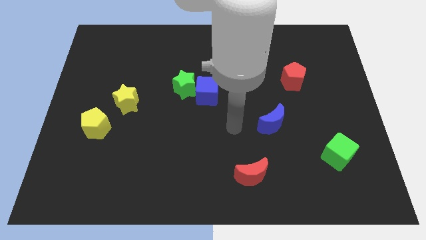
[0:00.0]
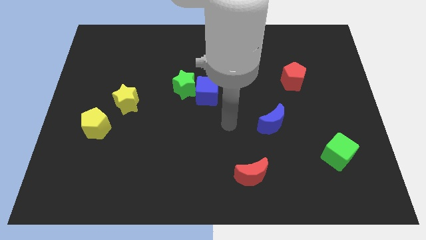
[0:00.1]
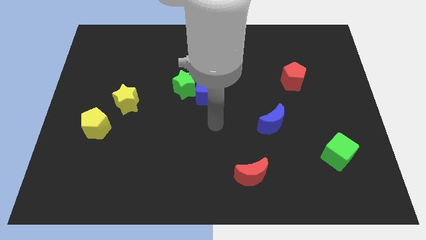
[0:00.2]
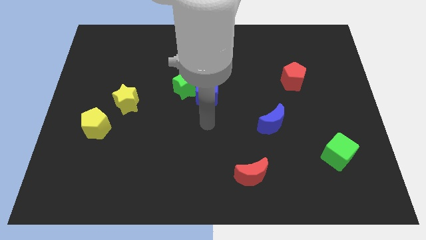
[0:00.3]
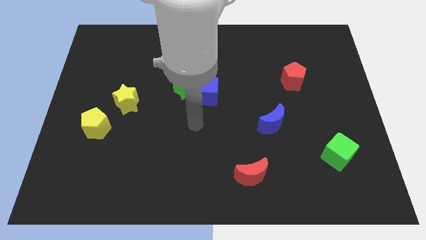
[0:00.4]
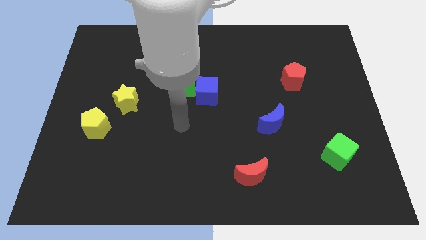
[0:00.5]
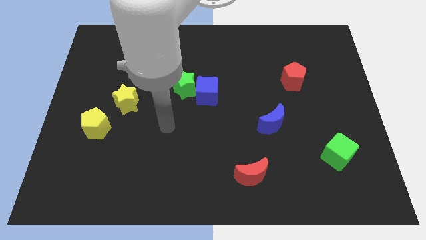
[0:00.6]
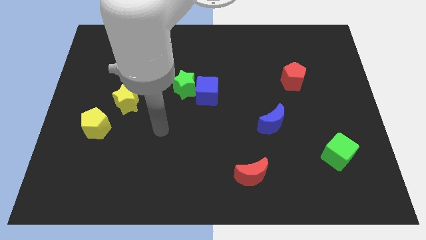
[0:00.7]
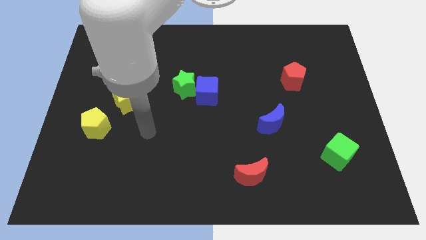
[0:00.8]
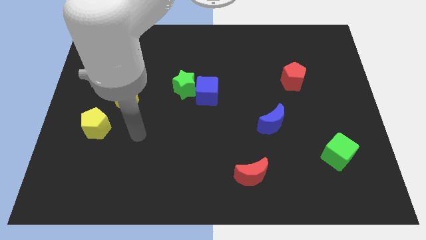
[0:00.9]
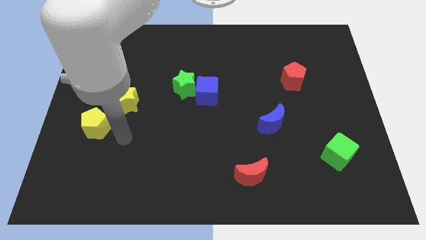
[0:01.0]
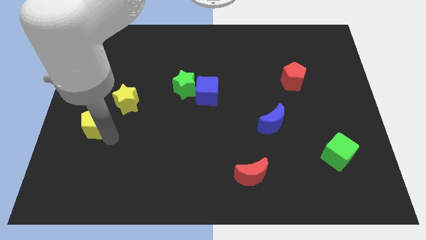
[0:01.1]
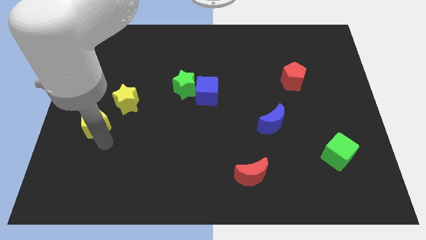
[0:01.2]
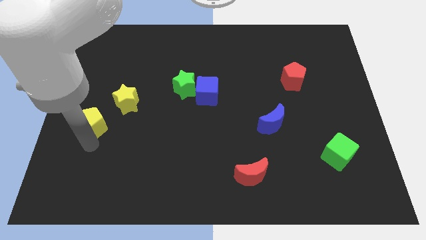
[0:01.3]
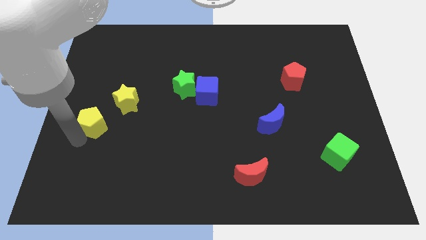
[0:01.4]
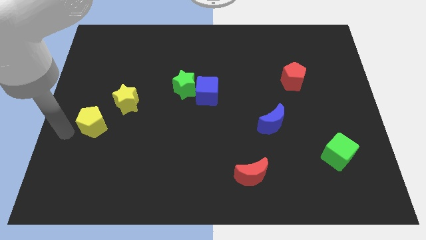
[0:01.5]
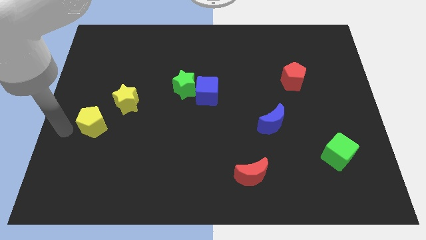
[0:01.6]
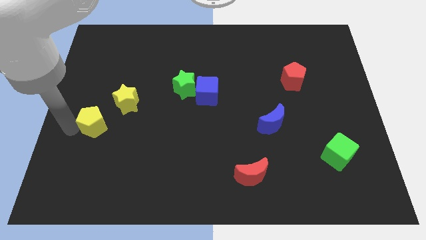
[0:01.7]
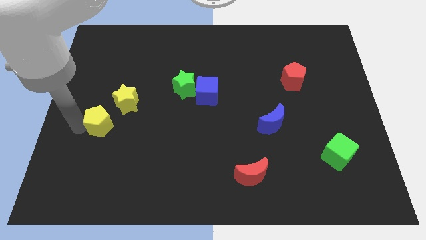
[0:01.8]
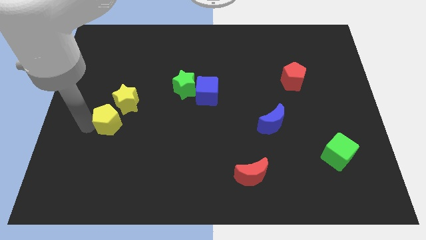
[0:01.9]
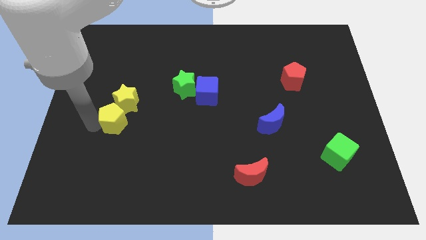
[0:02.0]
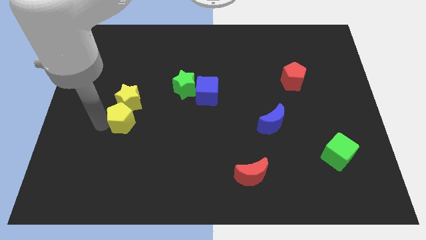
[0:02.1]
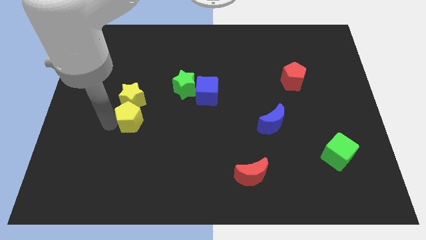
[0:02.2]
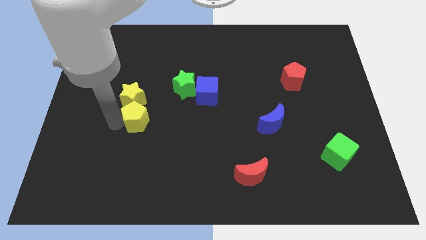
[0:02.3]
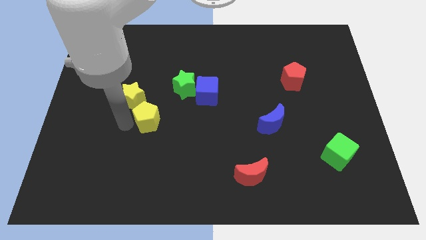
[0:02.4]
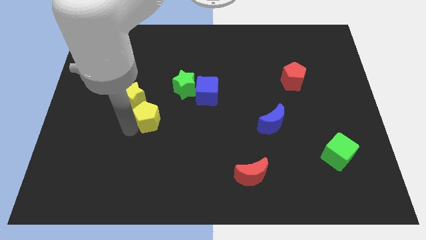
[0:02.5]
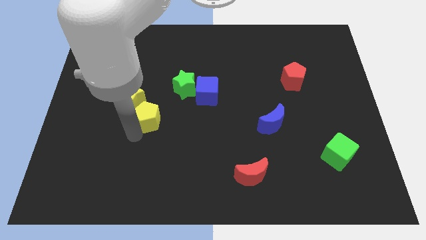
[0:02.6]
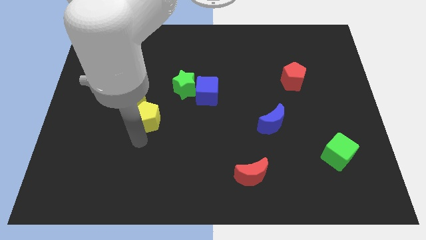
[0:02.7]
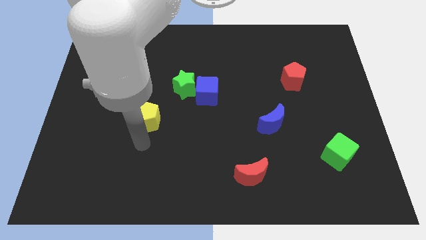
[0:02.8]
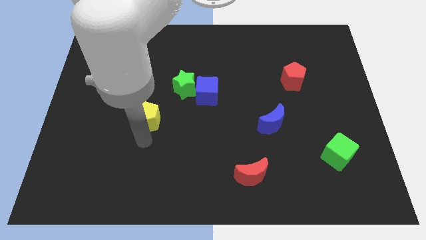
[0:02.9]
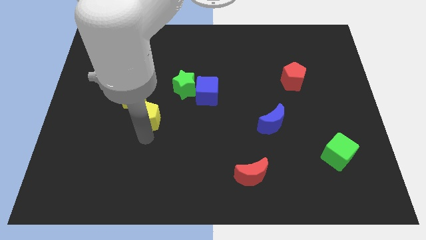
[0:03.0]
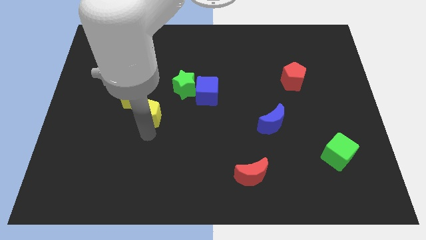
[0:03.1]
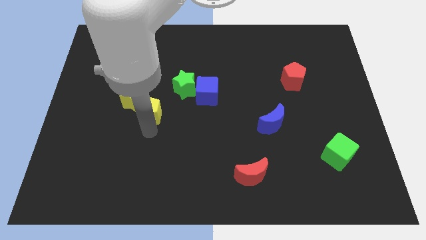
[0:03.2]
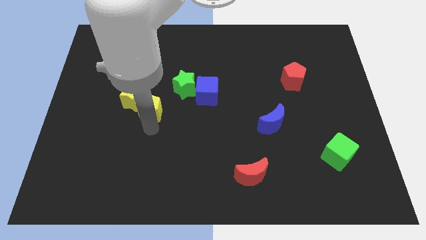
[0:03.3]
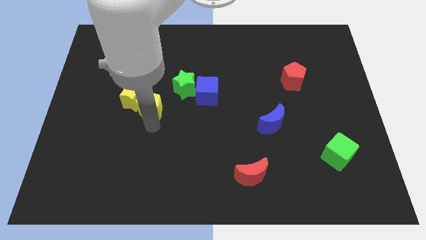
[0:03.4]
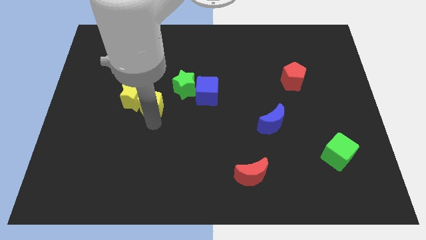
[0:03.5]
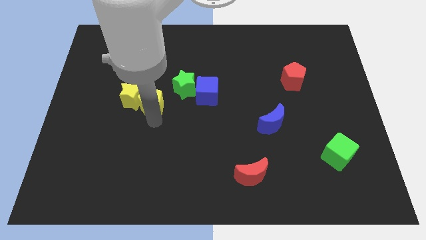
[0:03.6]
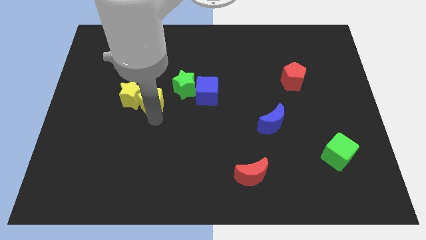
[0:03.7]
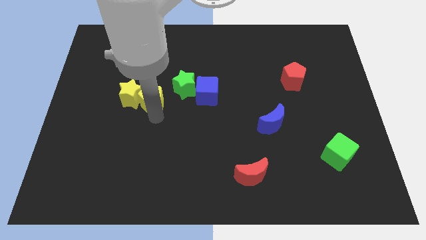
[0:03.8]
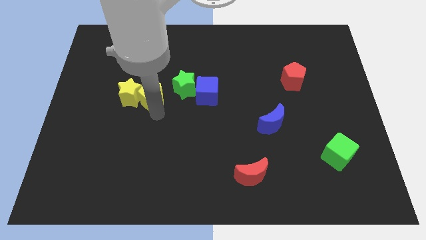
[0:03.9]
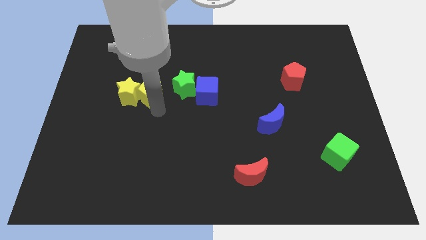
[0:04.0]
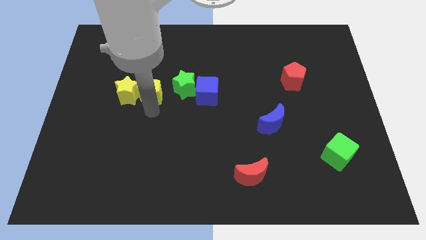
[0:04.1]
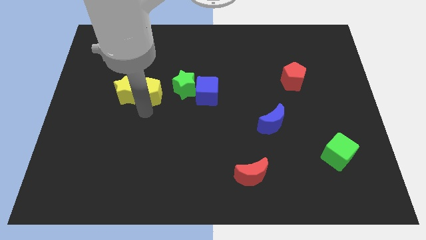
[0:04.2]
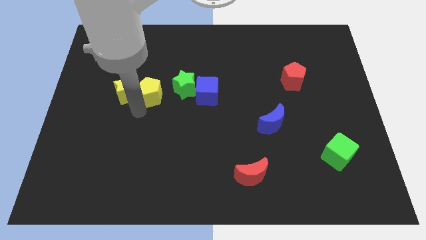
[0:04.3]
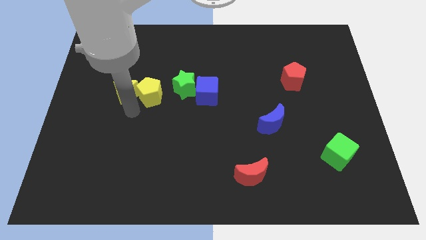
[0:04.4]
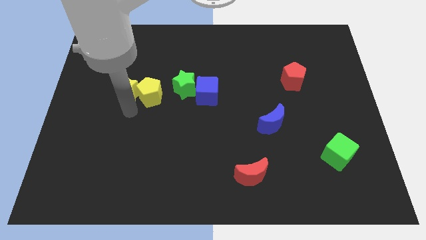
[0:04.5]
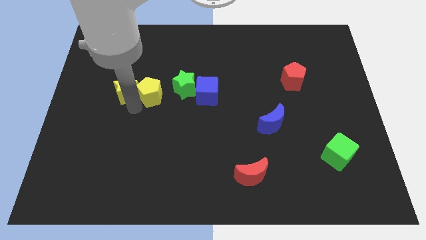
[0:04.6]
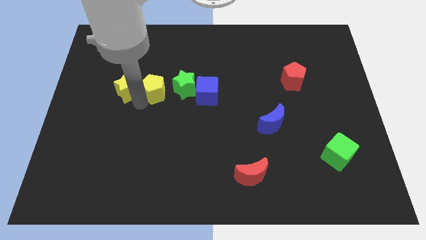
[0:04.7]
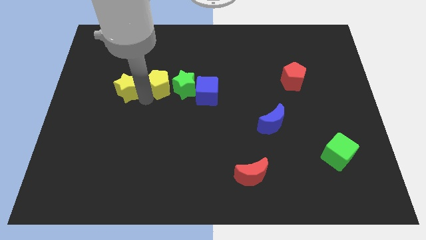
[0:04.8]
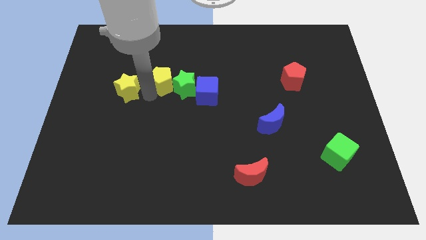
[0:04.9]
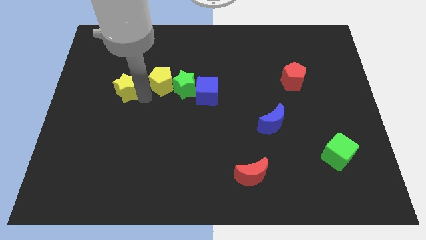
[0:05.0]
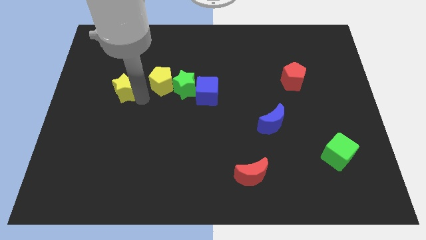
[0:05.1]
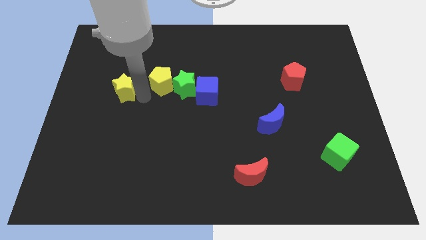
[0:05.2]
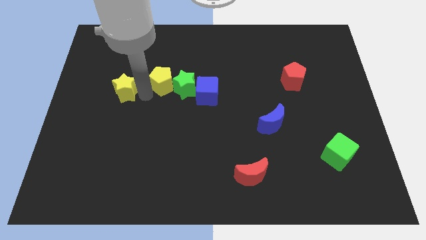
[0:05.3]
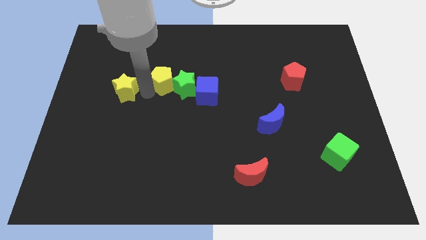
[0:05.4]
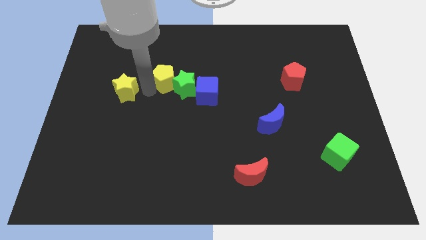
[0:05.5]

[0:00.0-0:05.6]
slide the yellow pentagon upwards and then right

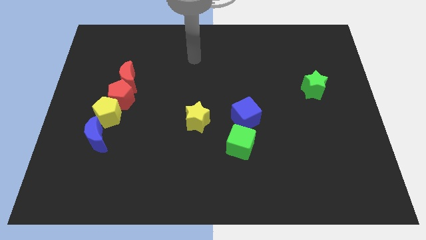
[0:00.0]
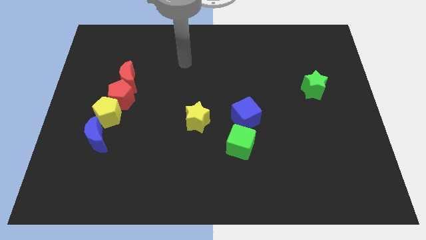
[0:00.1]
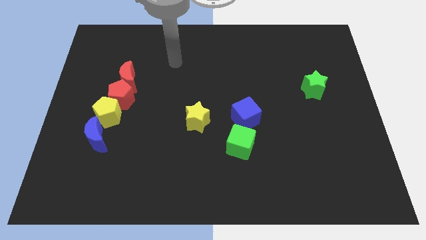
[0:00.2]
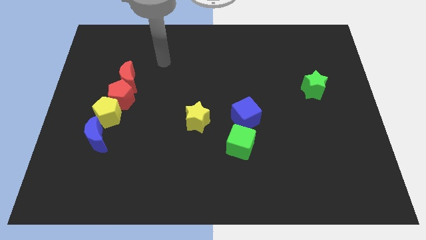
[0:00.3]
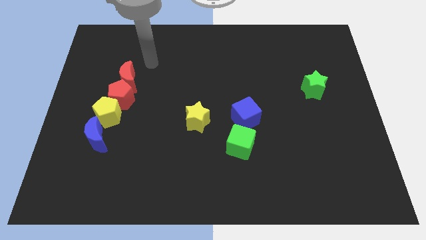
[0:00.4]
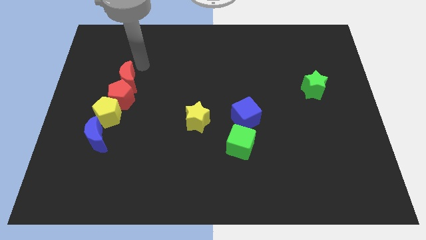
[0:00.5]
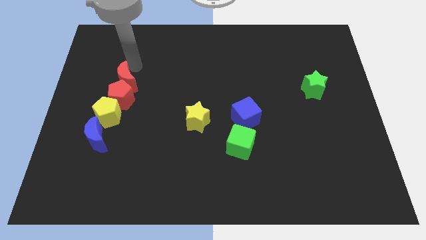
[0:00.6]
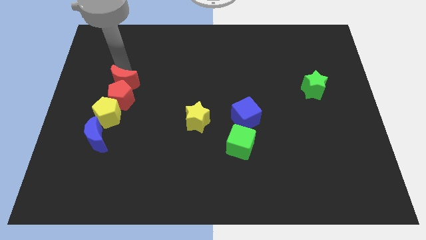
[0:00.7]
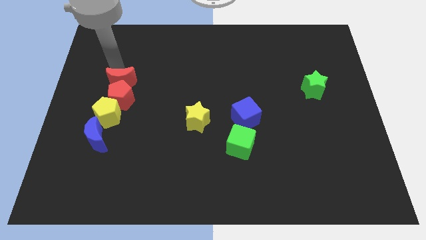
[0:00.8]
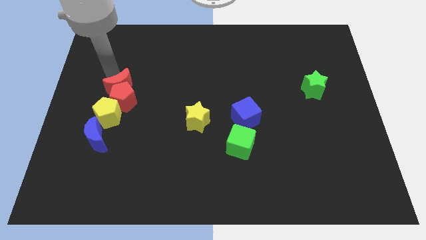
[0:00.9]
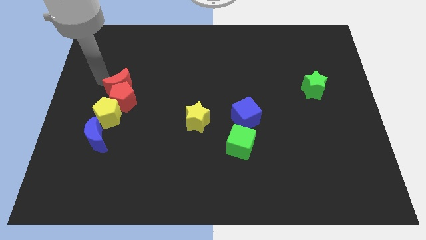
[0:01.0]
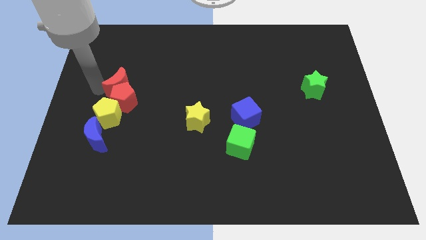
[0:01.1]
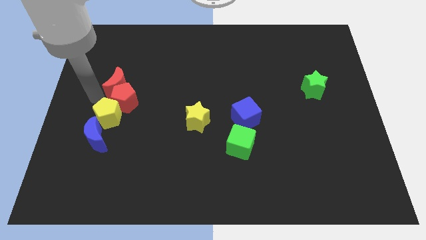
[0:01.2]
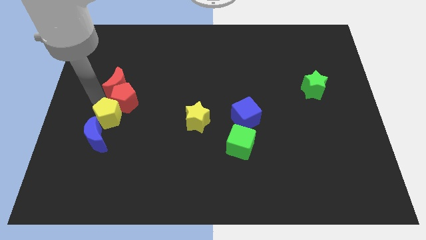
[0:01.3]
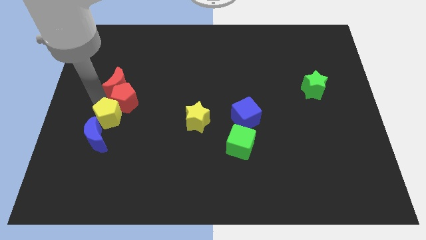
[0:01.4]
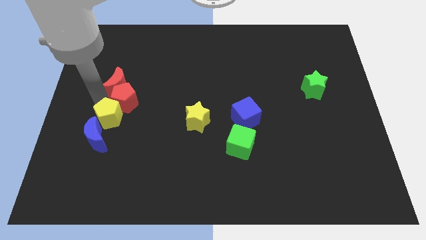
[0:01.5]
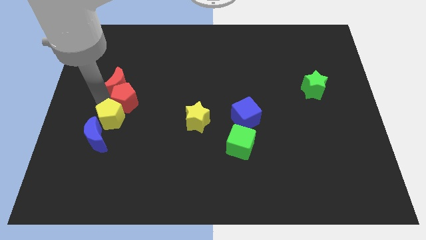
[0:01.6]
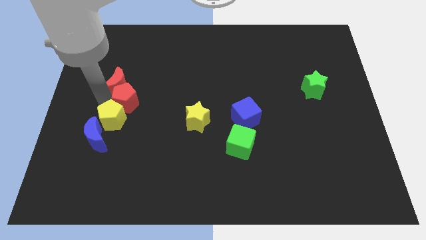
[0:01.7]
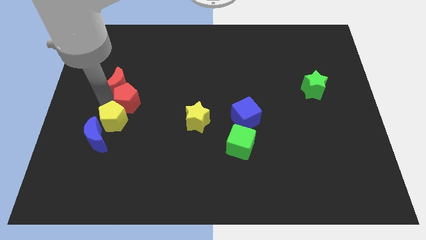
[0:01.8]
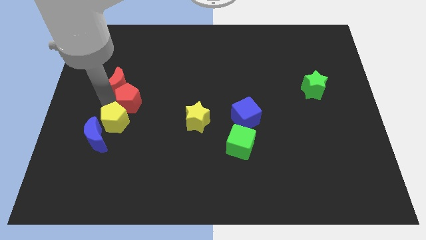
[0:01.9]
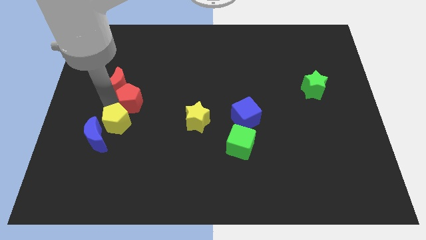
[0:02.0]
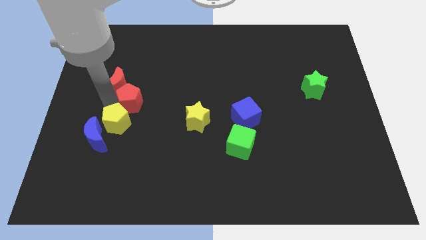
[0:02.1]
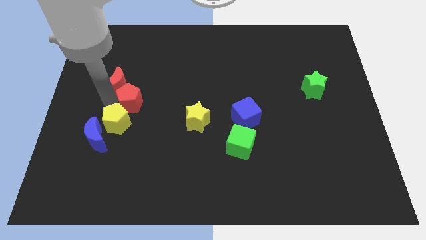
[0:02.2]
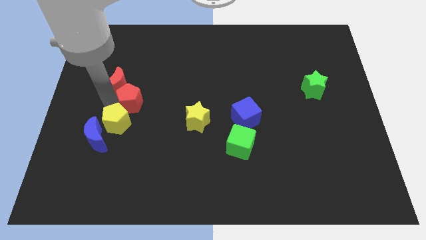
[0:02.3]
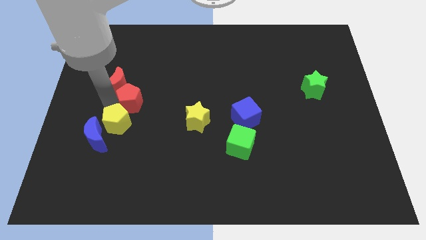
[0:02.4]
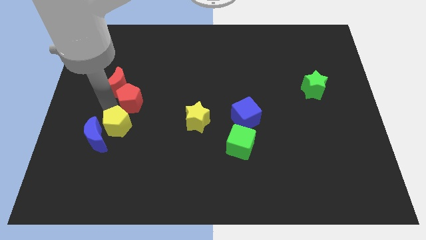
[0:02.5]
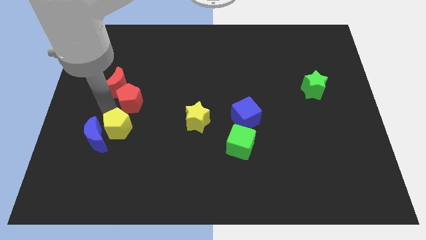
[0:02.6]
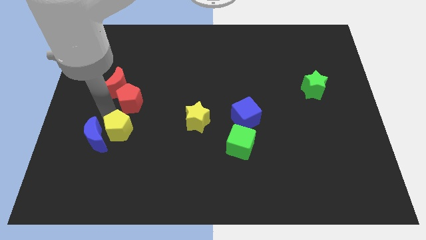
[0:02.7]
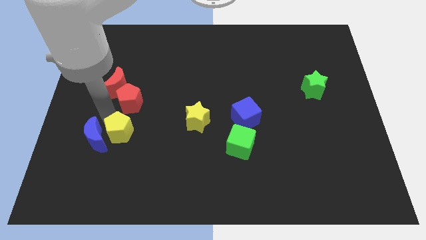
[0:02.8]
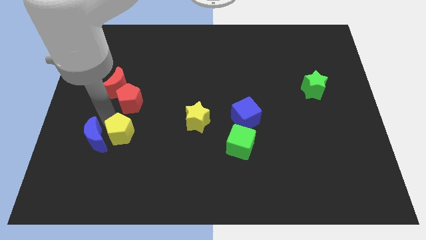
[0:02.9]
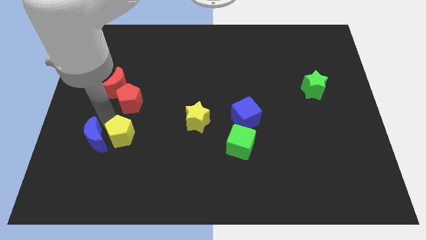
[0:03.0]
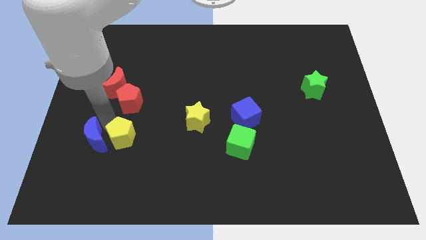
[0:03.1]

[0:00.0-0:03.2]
push the yellow pentagon a little bit downwards and to the right diagonally
